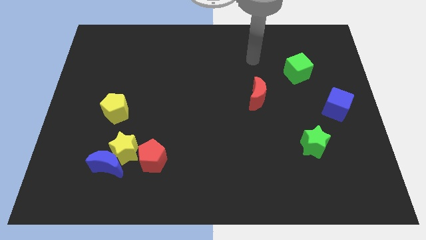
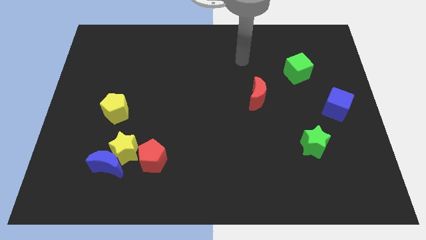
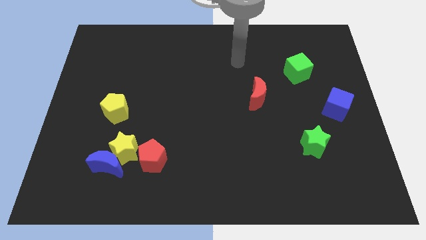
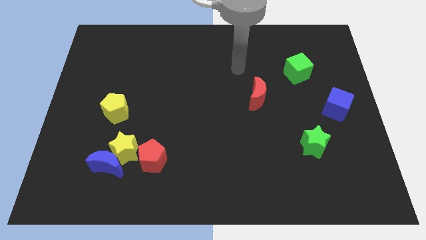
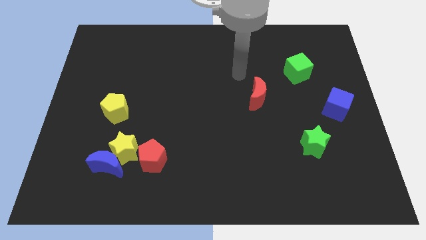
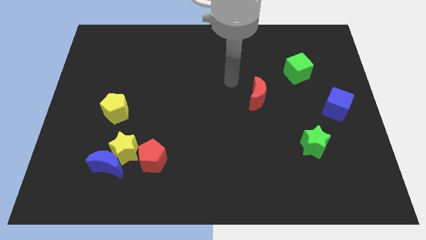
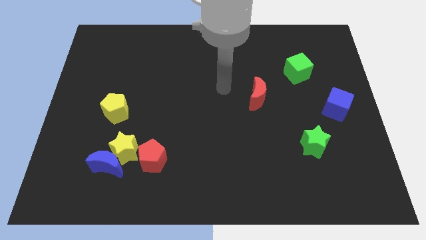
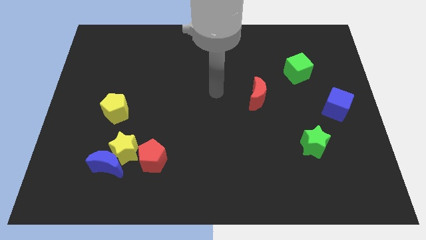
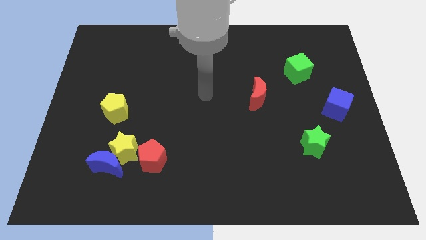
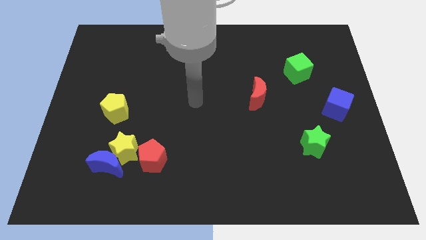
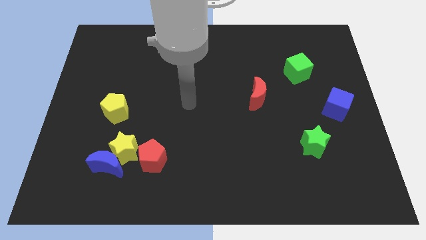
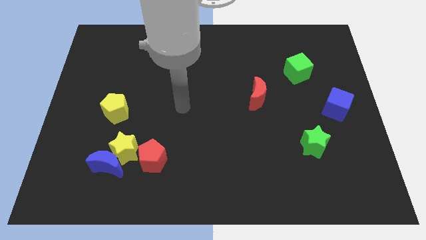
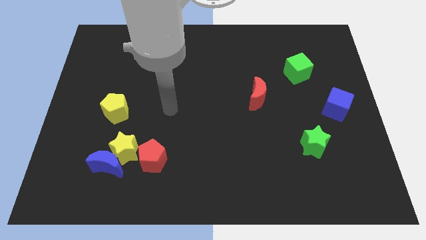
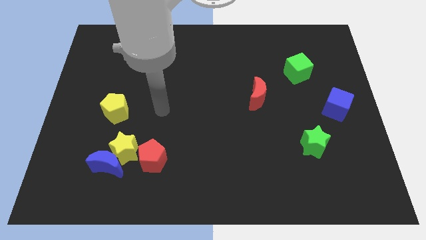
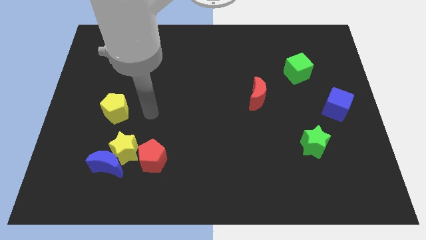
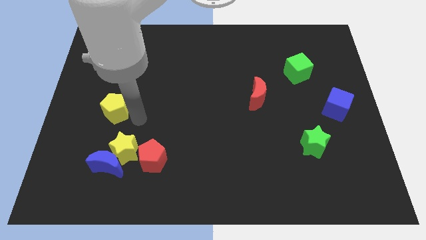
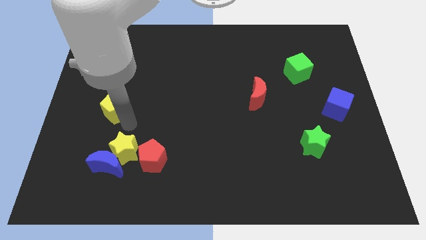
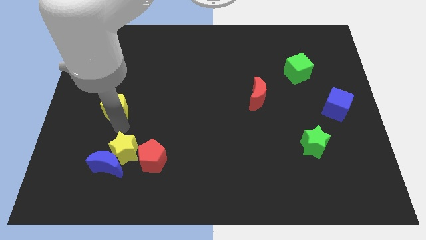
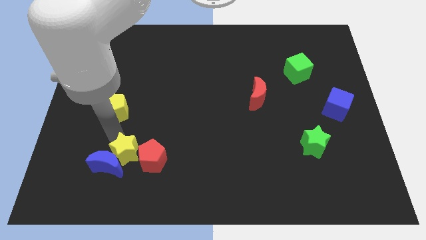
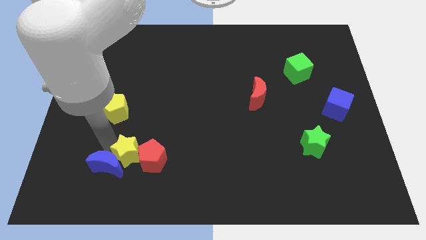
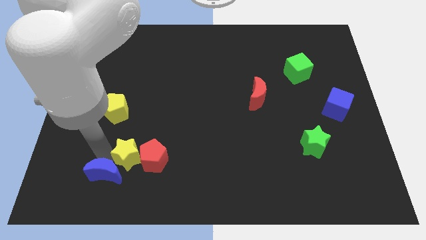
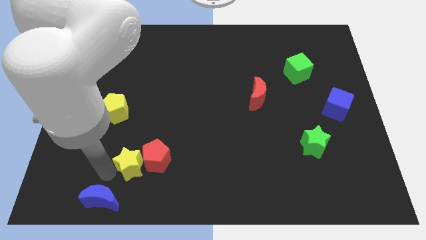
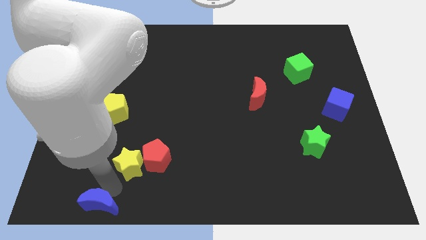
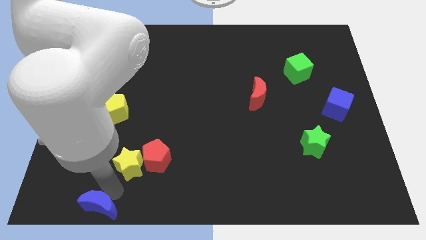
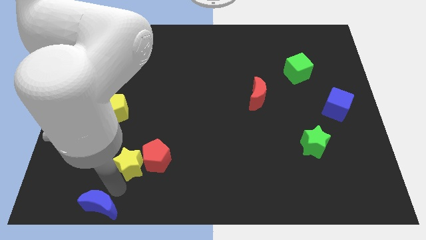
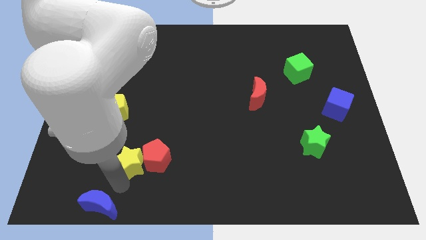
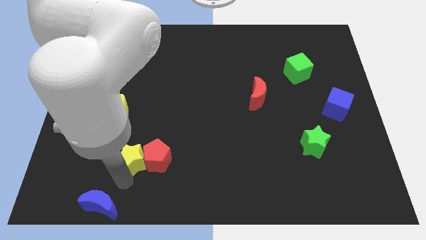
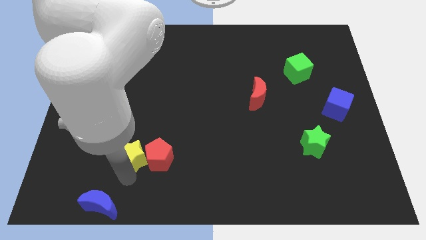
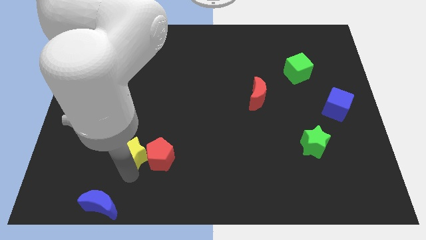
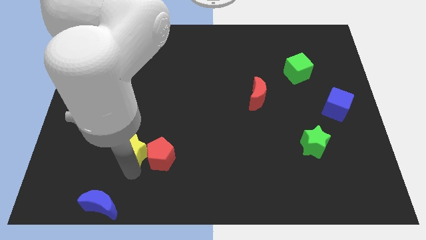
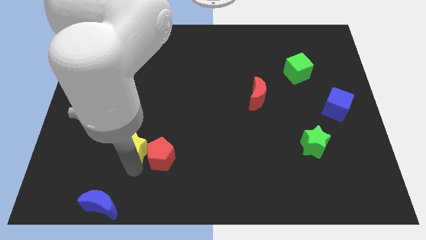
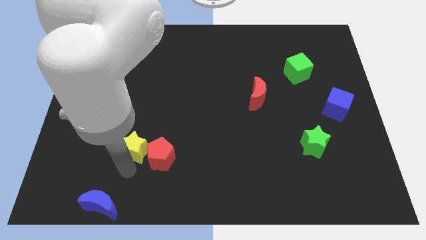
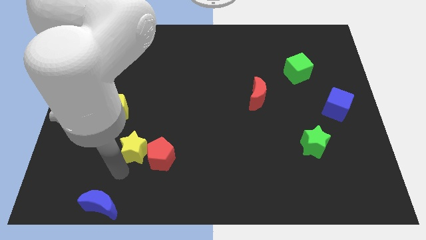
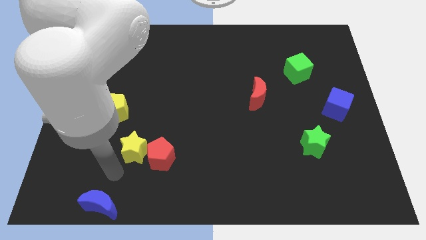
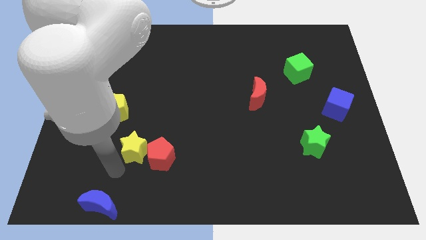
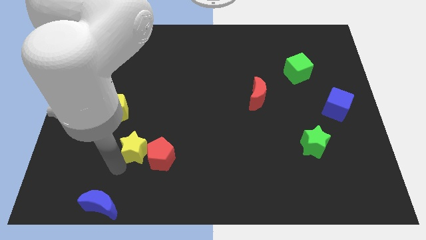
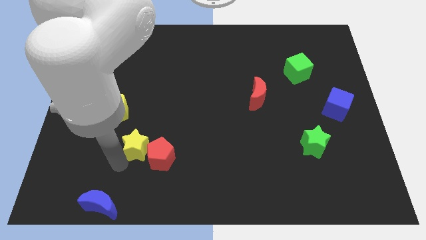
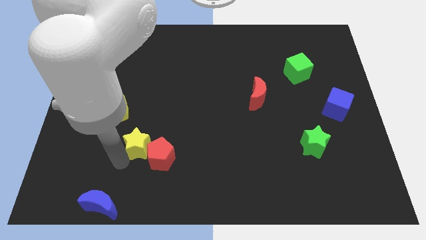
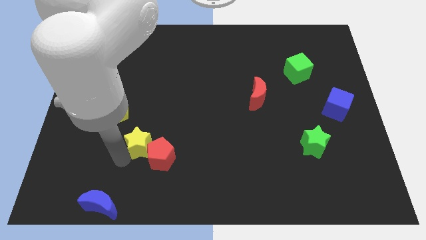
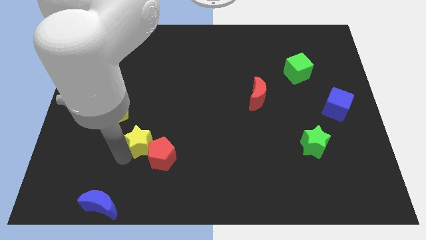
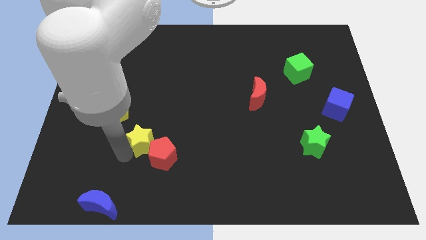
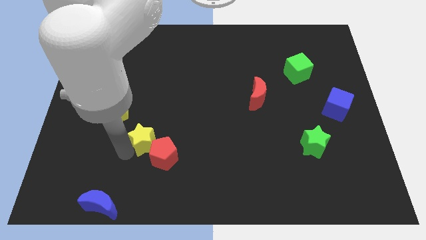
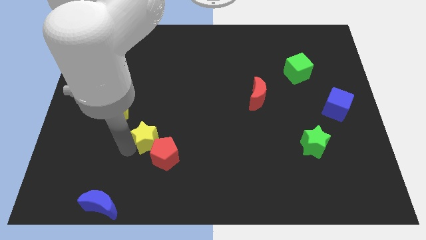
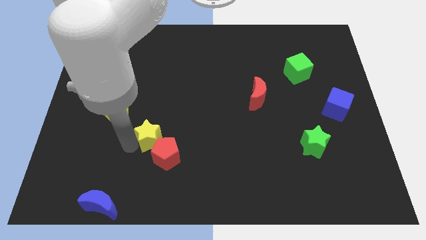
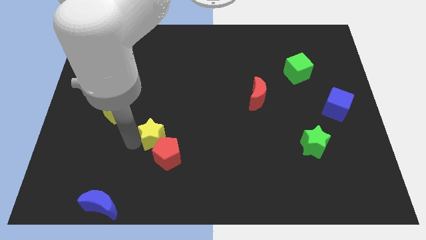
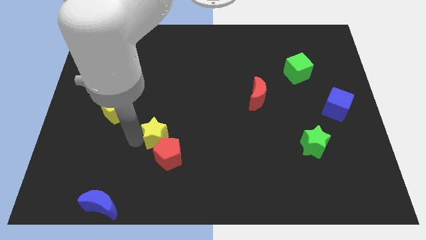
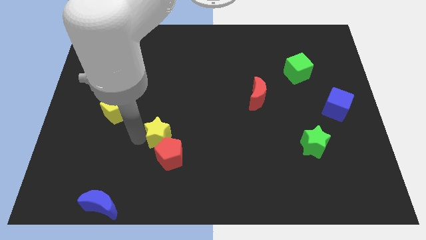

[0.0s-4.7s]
slightly slide the yellow star up and to the right

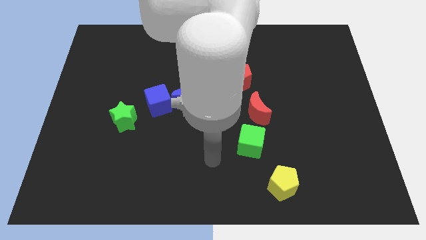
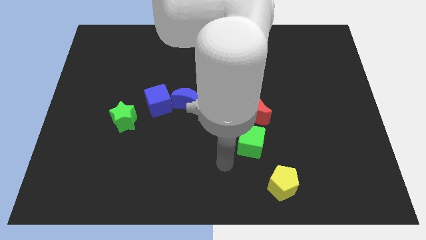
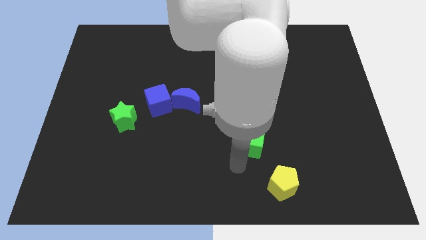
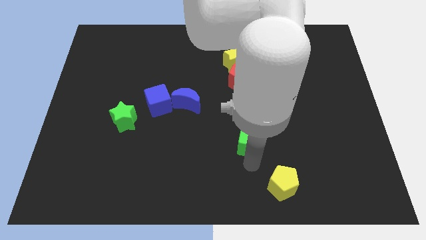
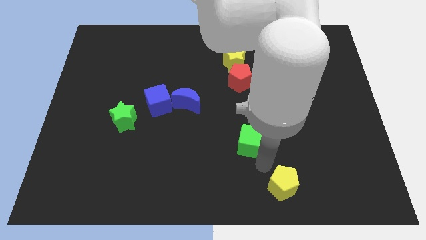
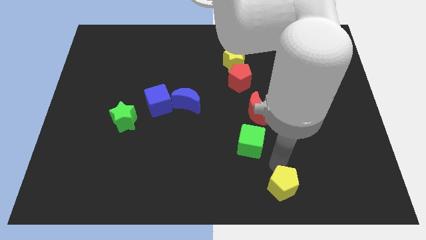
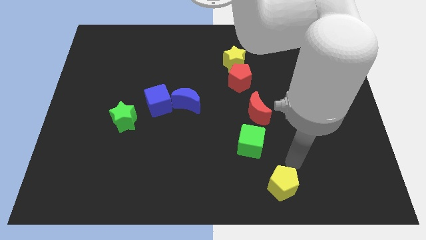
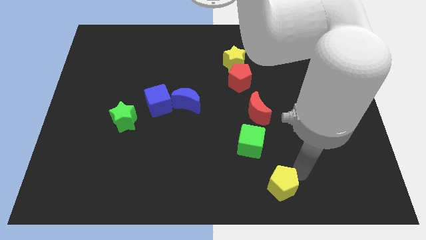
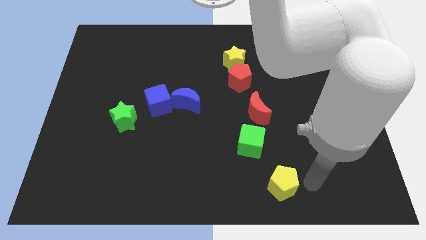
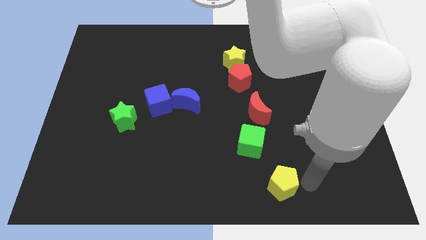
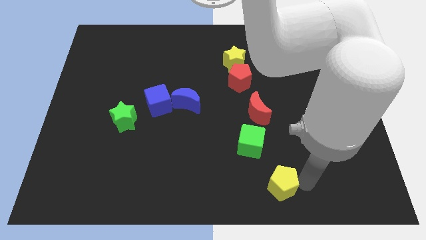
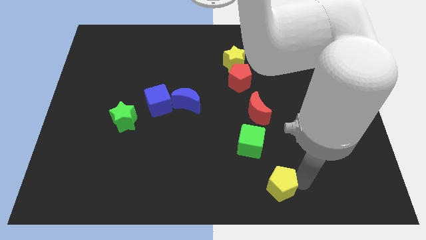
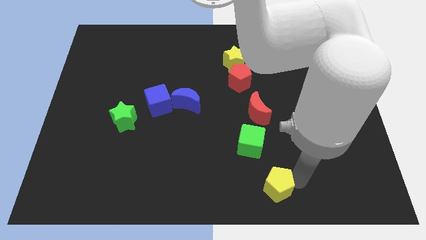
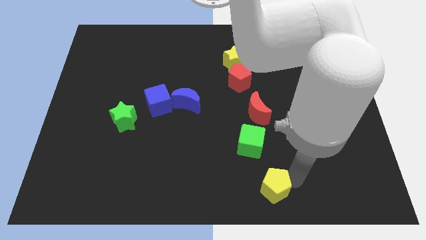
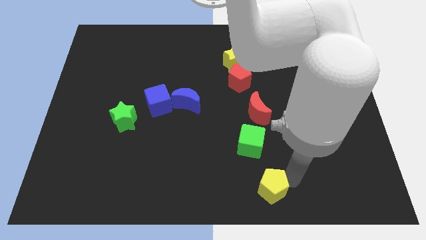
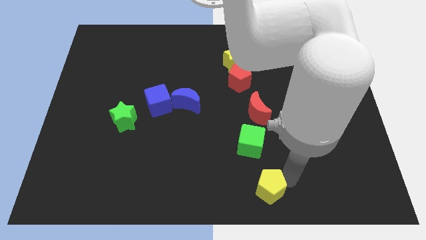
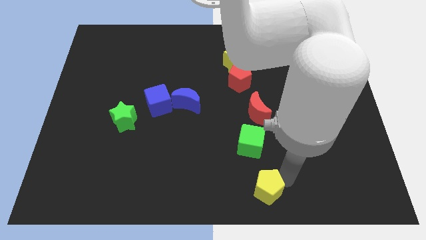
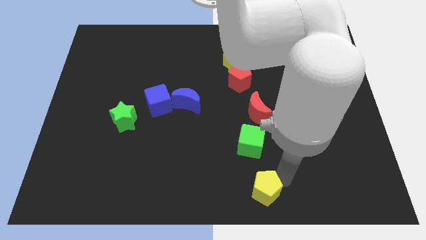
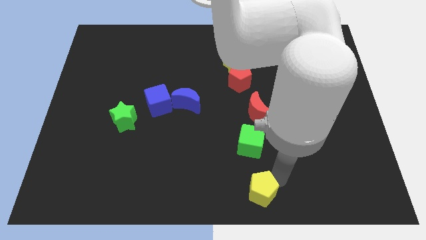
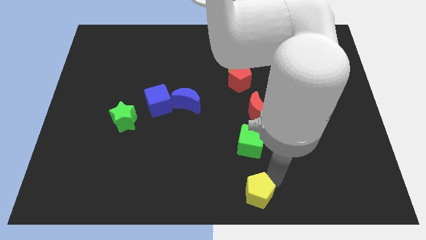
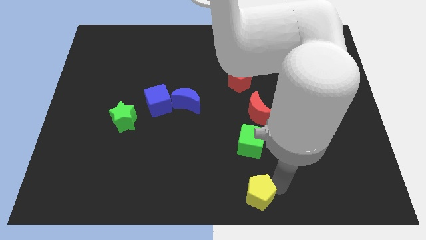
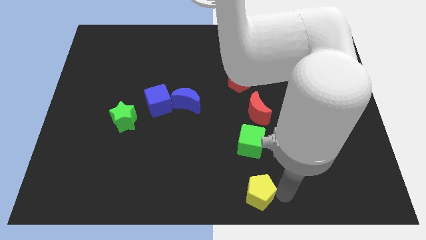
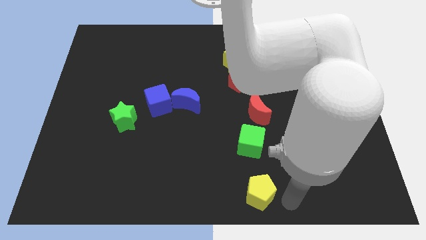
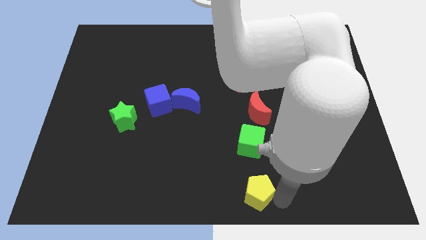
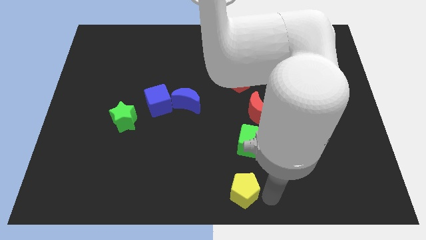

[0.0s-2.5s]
slightly push the yellow pentagon left

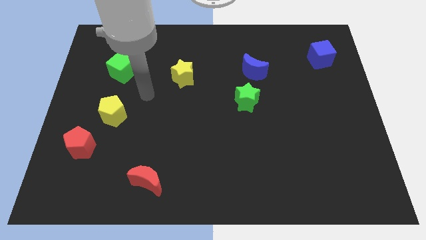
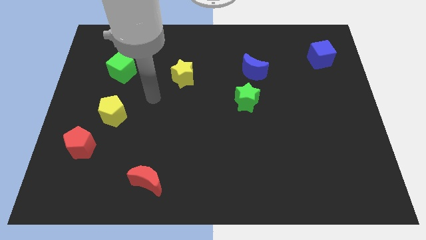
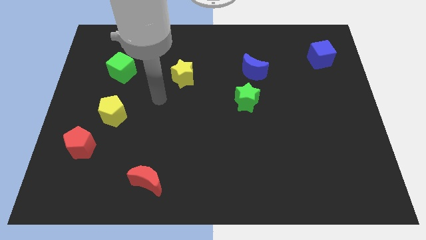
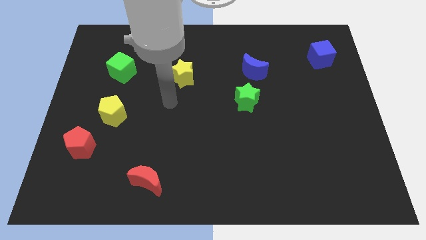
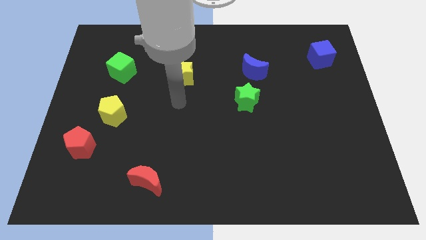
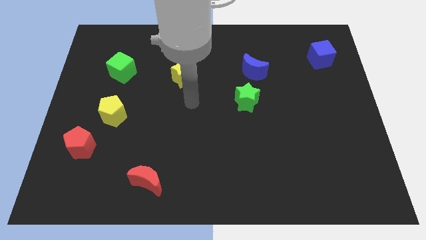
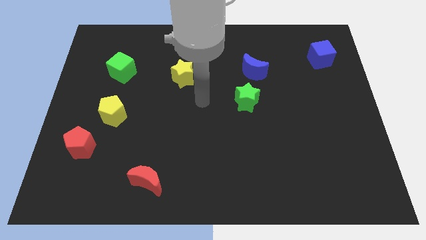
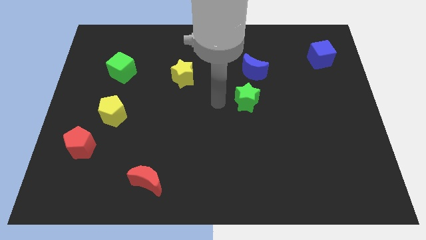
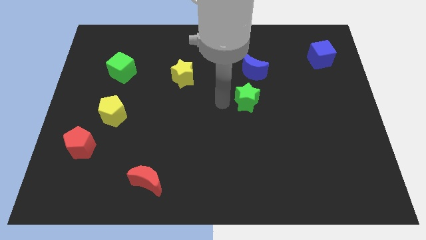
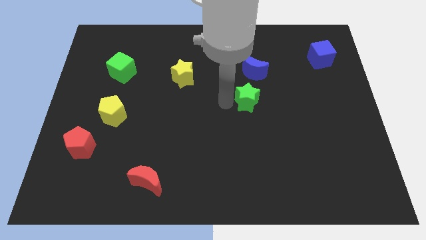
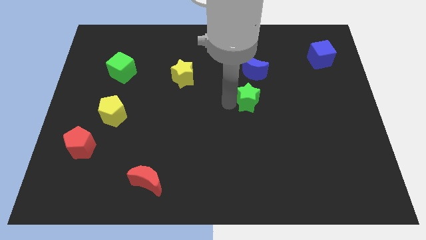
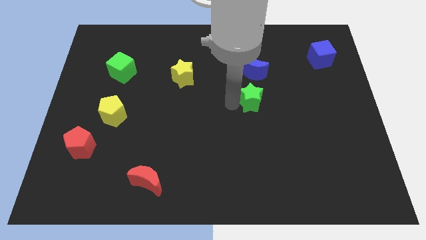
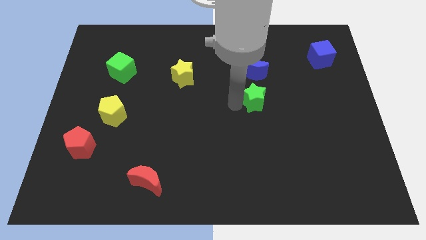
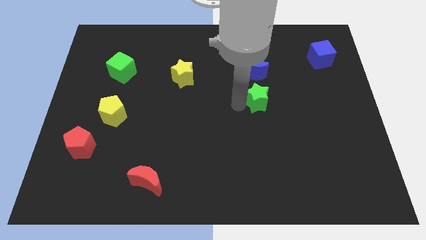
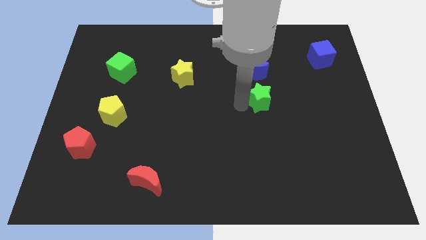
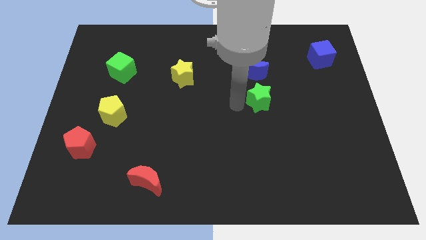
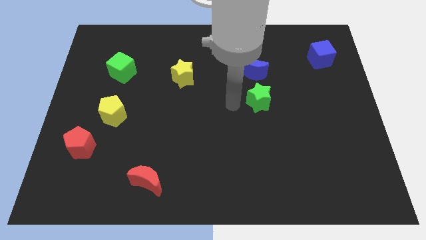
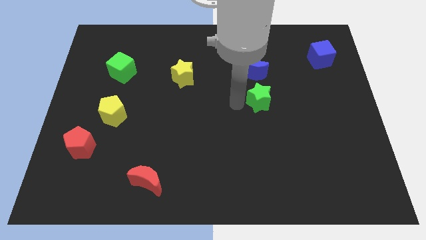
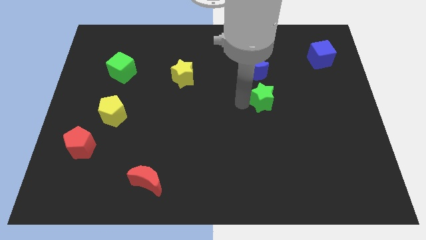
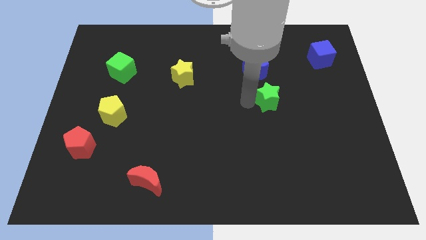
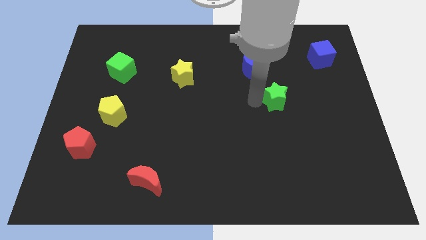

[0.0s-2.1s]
move the green star to the right slightly
